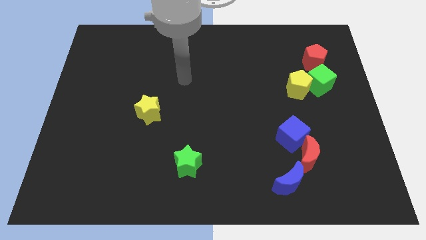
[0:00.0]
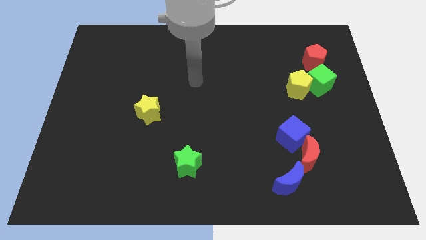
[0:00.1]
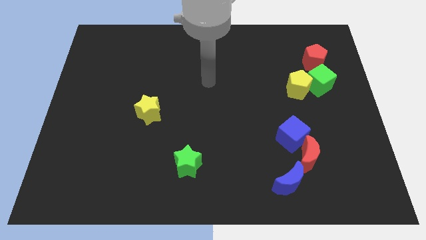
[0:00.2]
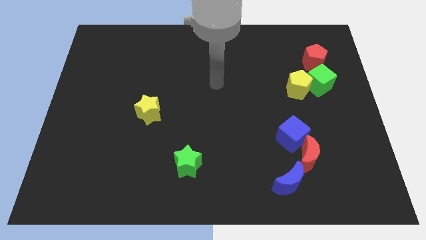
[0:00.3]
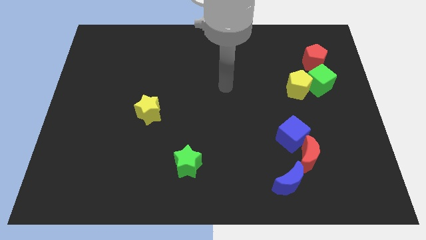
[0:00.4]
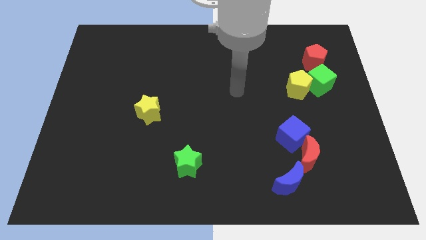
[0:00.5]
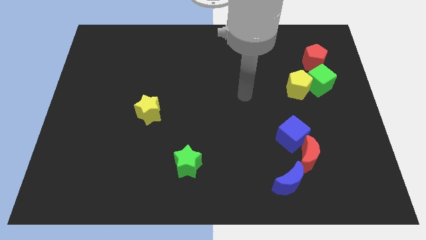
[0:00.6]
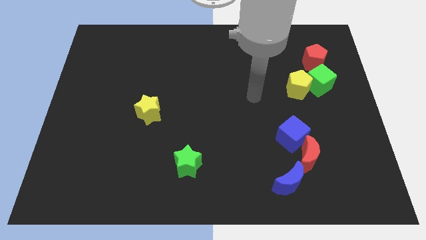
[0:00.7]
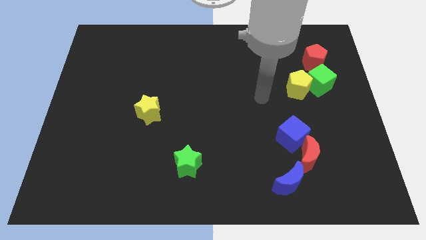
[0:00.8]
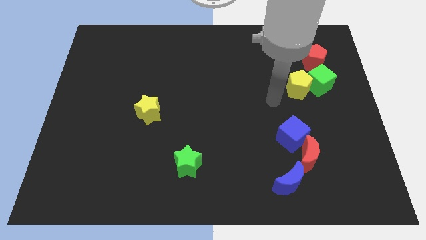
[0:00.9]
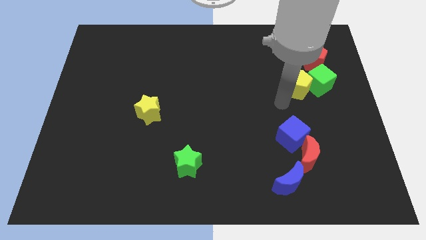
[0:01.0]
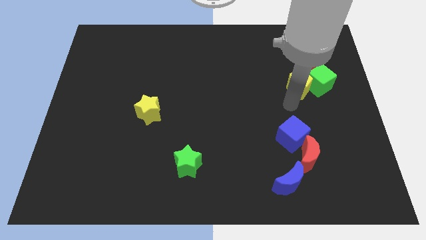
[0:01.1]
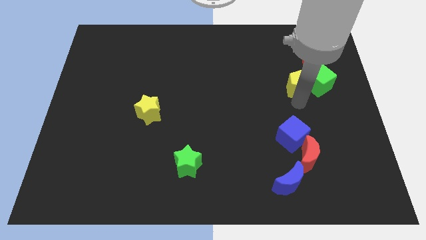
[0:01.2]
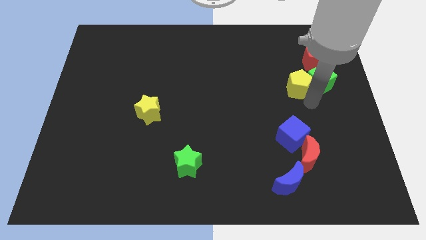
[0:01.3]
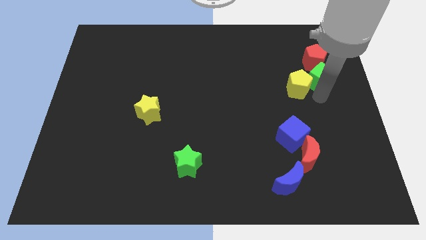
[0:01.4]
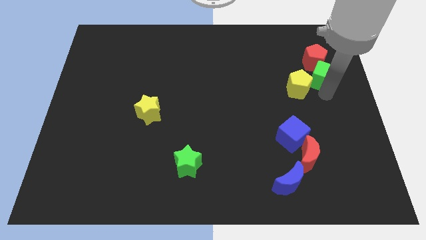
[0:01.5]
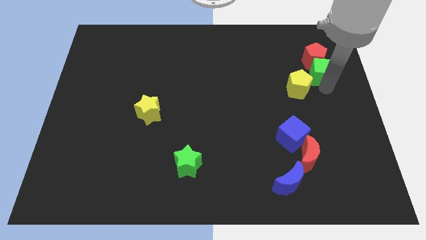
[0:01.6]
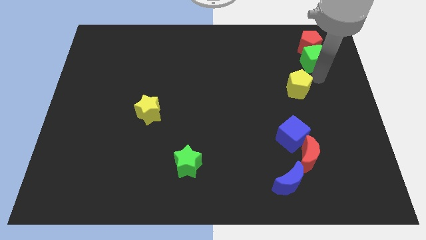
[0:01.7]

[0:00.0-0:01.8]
move the yellow pentagon away from the green cube

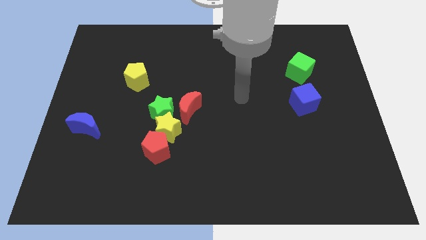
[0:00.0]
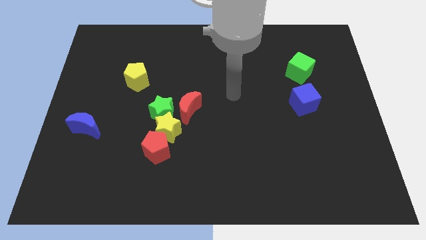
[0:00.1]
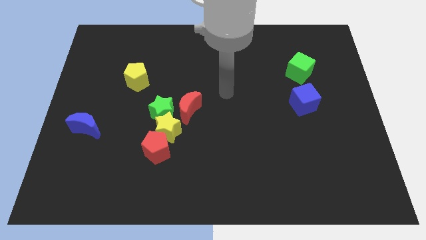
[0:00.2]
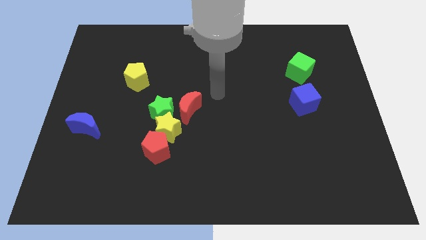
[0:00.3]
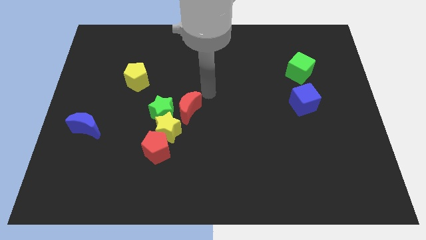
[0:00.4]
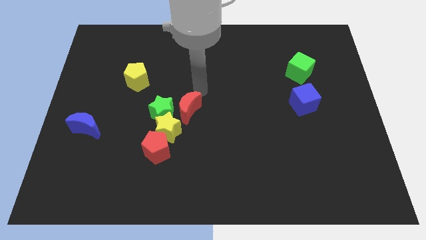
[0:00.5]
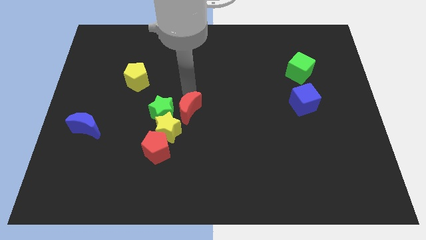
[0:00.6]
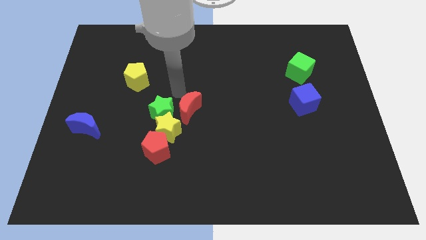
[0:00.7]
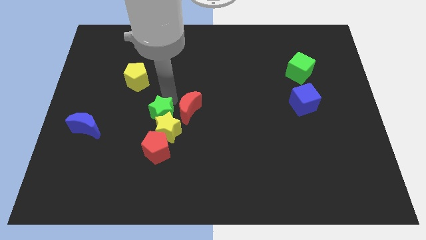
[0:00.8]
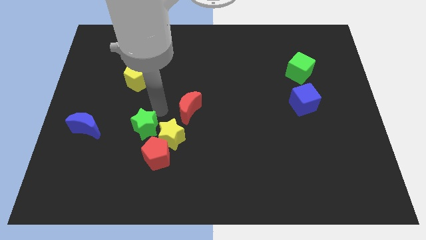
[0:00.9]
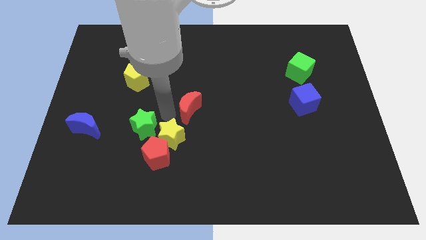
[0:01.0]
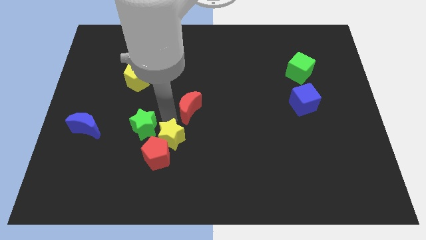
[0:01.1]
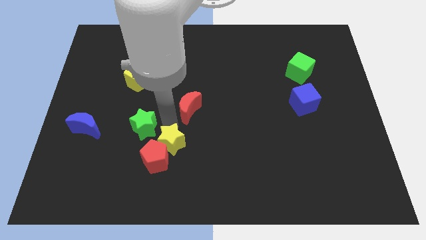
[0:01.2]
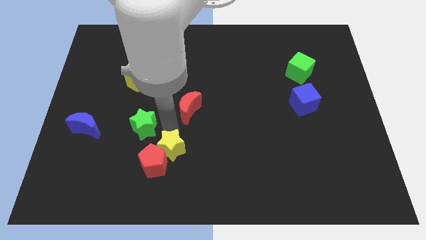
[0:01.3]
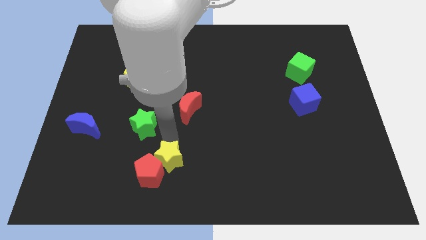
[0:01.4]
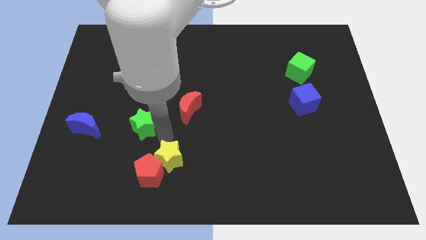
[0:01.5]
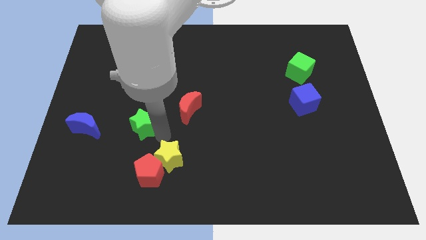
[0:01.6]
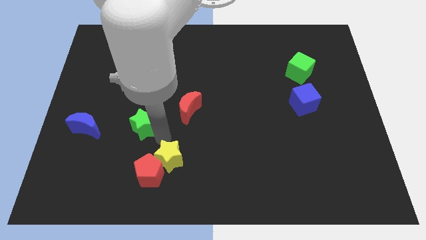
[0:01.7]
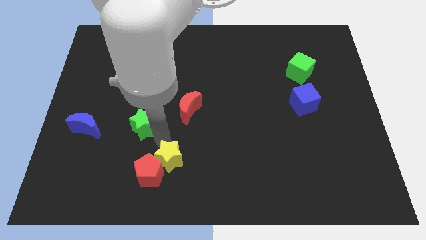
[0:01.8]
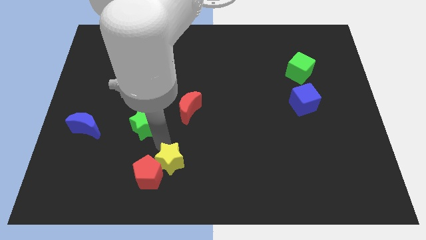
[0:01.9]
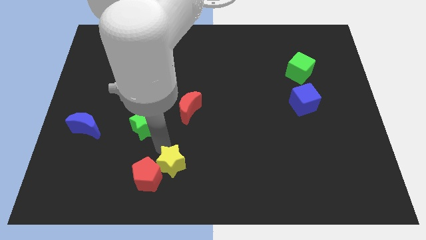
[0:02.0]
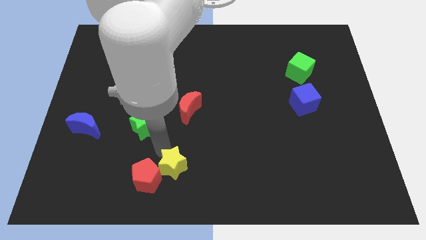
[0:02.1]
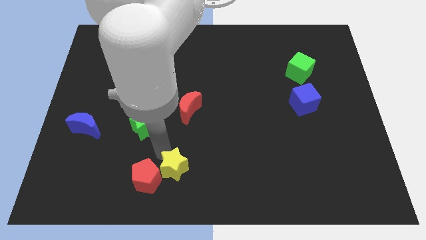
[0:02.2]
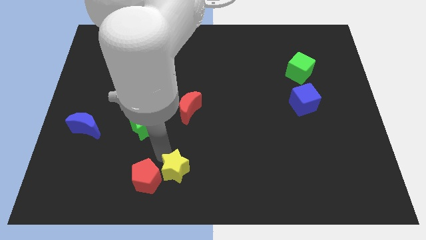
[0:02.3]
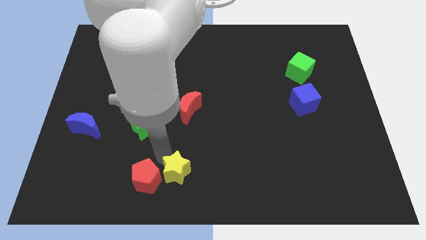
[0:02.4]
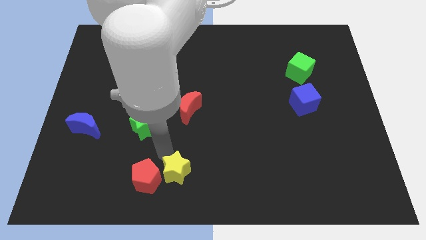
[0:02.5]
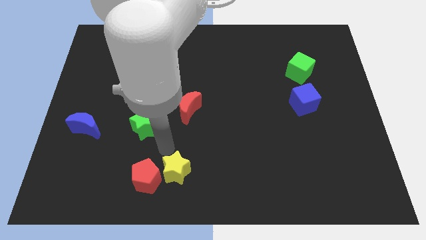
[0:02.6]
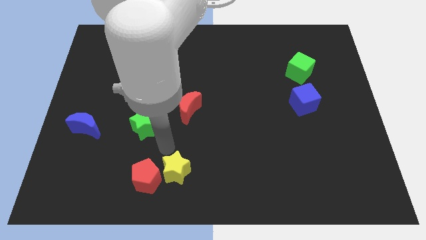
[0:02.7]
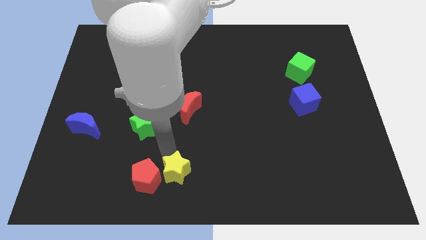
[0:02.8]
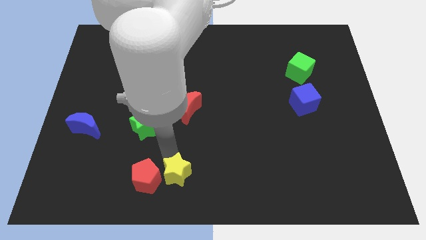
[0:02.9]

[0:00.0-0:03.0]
separate the yellow star from the green star, red pentagon, and red moon

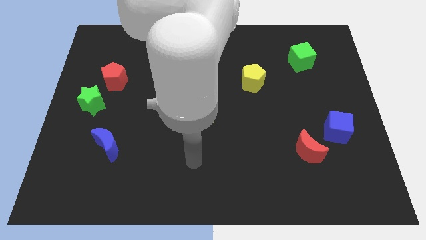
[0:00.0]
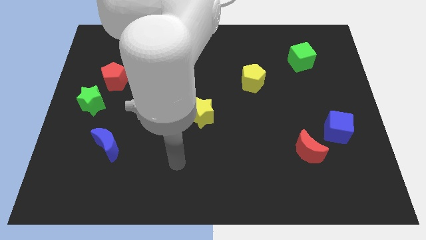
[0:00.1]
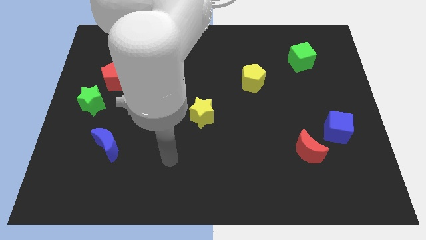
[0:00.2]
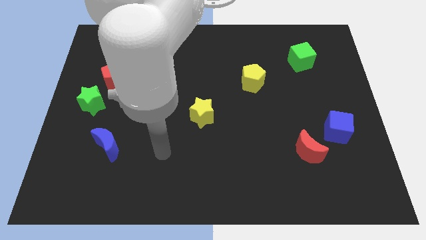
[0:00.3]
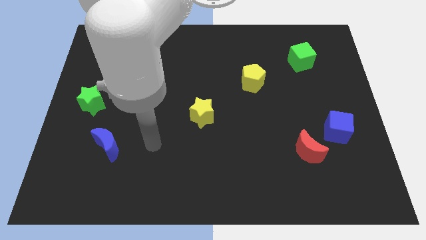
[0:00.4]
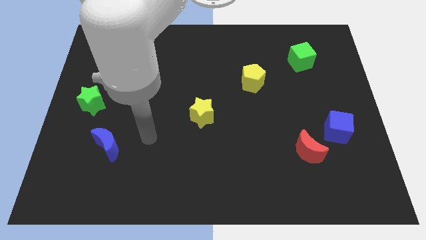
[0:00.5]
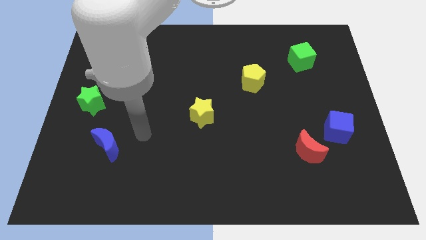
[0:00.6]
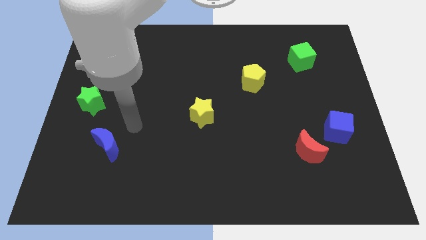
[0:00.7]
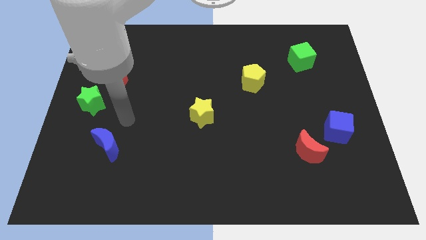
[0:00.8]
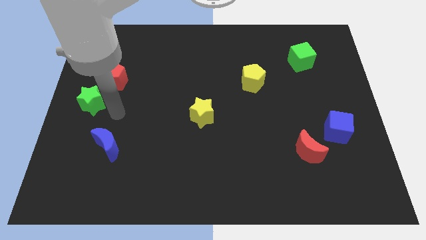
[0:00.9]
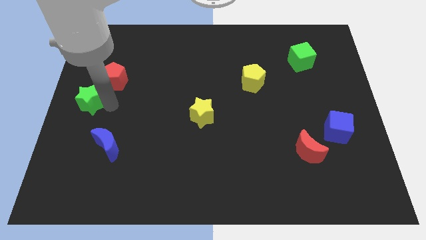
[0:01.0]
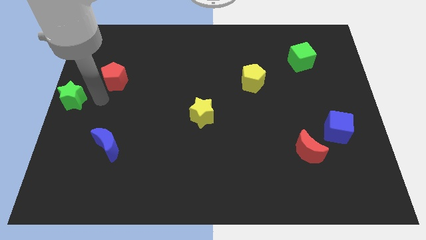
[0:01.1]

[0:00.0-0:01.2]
separate the red pentagon from the green star

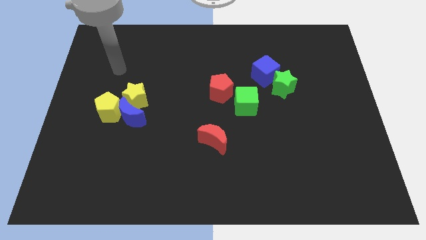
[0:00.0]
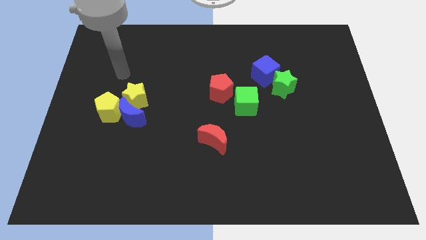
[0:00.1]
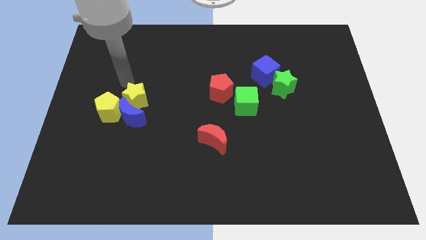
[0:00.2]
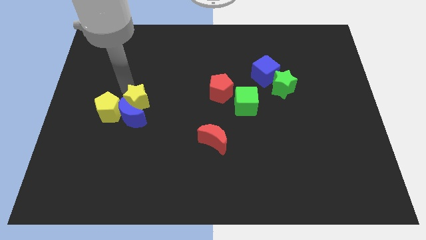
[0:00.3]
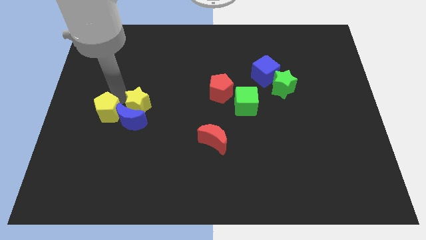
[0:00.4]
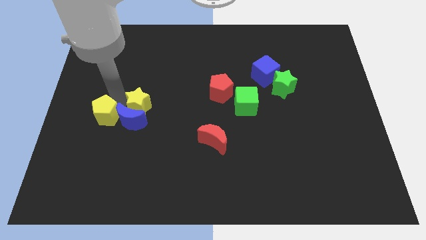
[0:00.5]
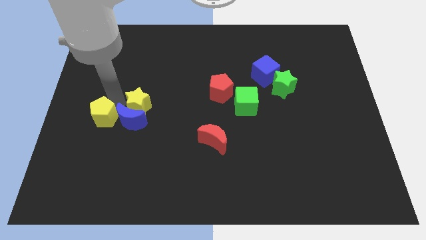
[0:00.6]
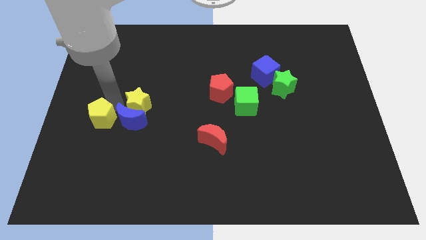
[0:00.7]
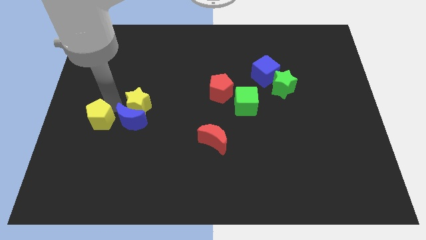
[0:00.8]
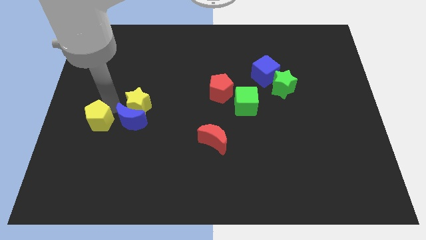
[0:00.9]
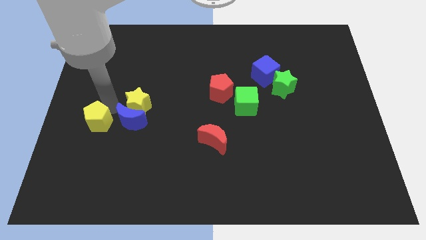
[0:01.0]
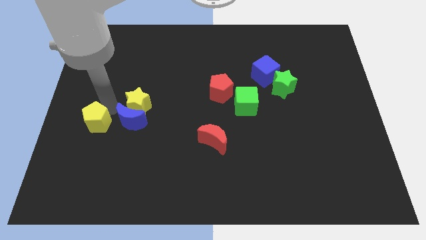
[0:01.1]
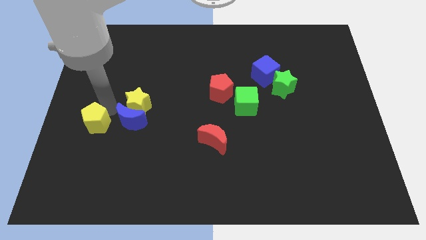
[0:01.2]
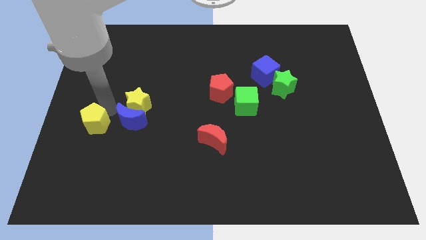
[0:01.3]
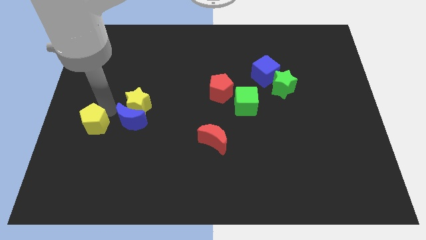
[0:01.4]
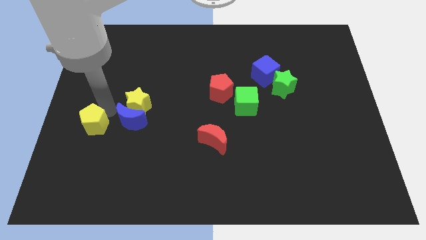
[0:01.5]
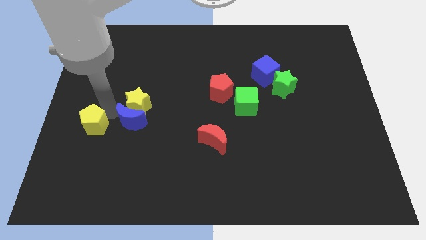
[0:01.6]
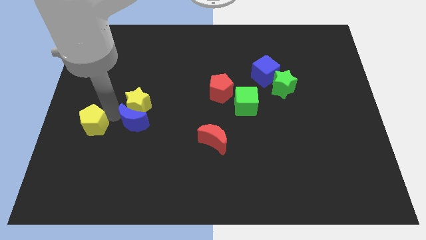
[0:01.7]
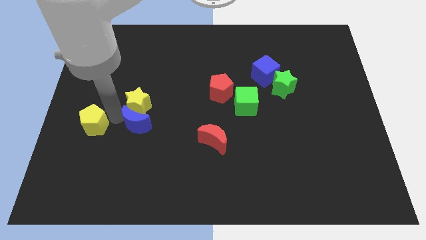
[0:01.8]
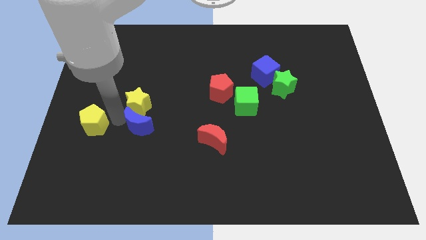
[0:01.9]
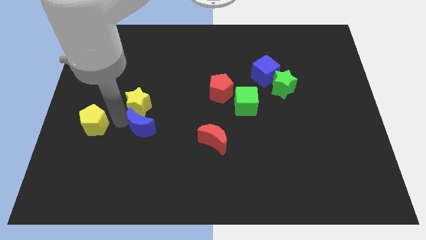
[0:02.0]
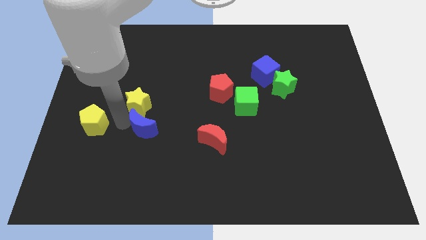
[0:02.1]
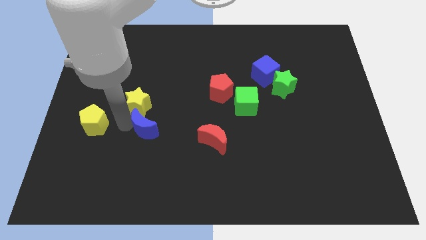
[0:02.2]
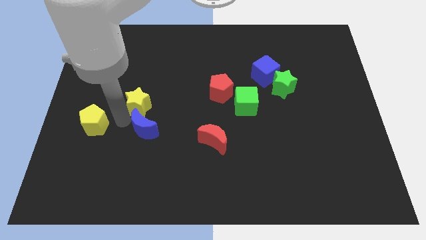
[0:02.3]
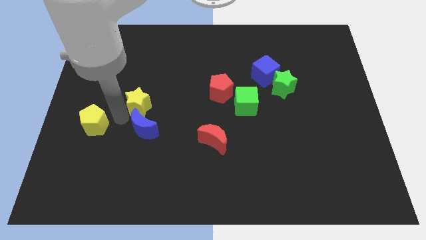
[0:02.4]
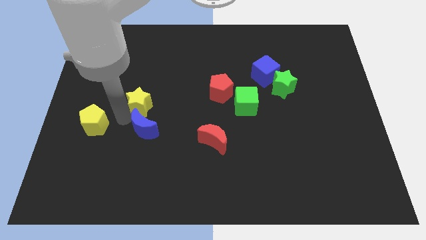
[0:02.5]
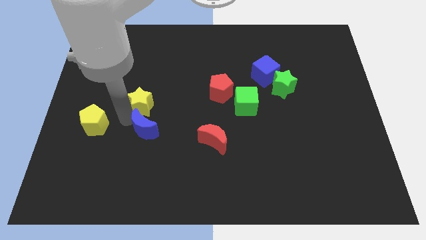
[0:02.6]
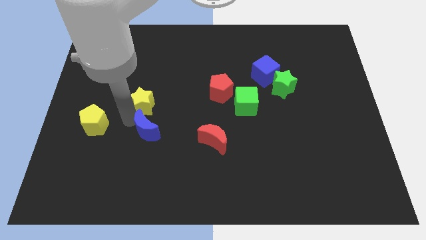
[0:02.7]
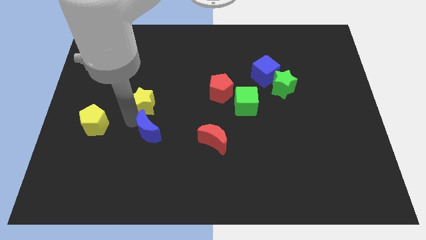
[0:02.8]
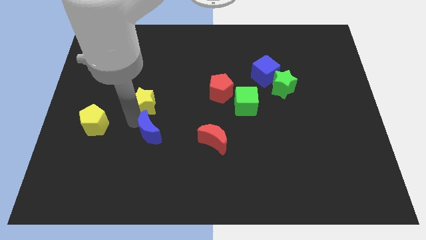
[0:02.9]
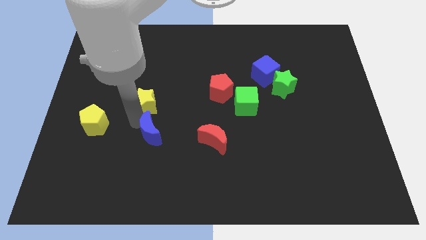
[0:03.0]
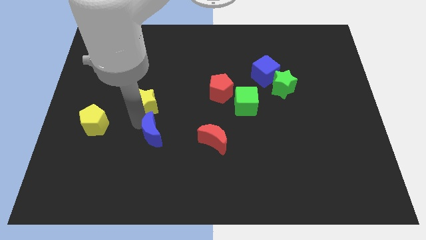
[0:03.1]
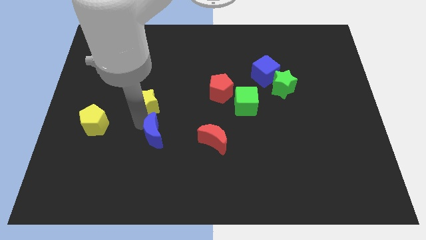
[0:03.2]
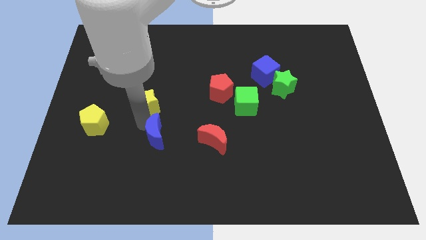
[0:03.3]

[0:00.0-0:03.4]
pull the blue moon apart from the yellow star and yellow pentagon
